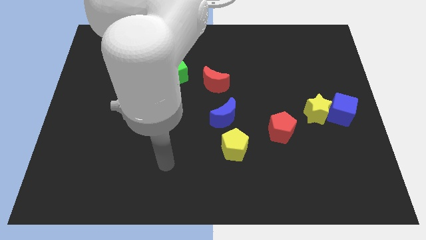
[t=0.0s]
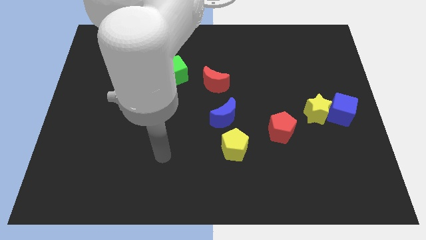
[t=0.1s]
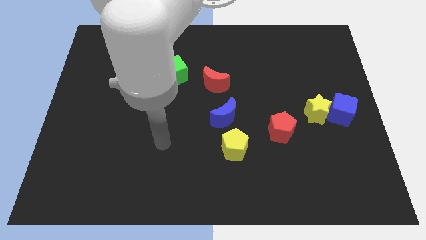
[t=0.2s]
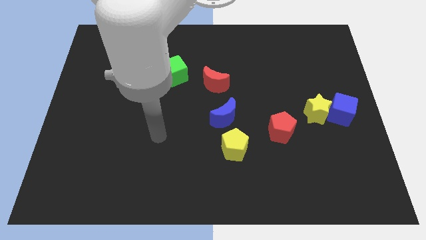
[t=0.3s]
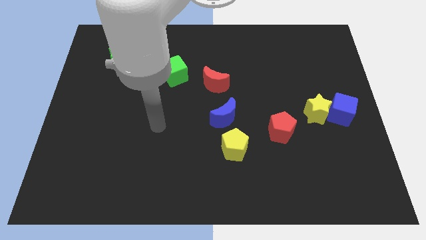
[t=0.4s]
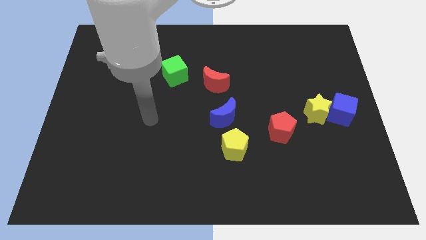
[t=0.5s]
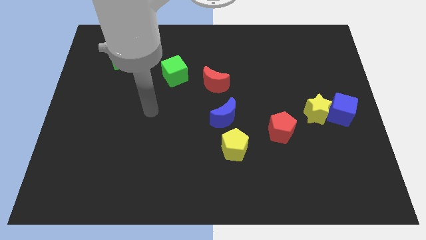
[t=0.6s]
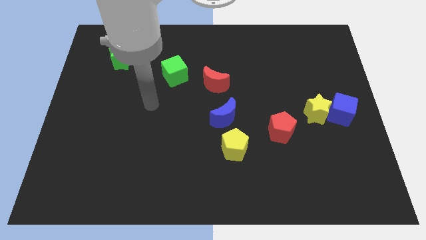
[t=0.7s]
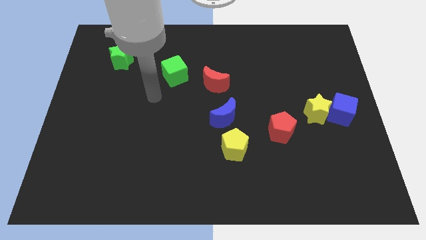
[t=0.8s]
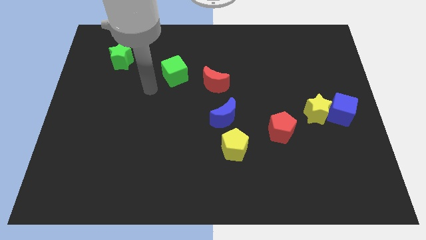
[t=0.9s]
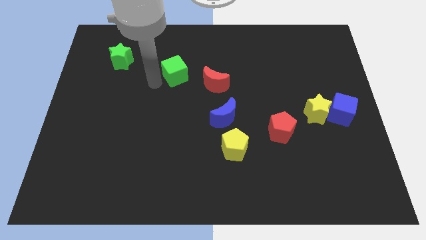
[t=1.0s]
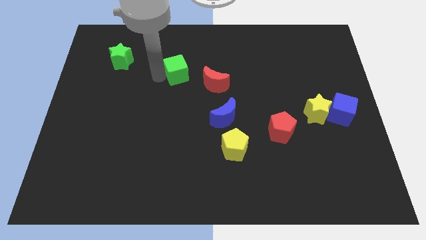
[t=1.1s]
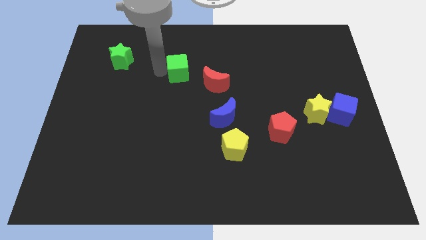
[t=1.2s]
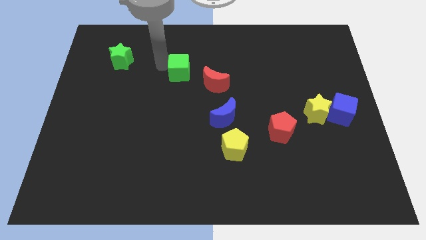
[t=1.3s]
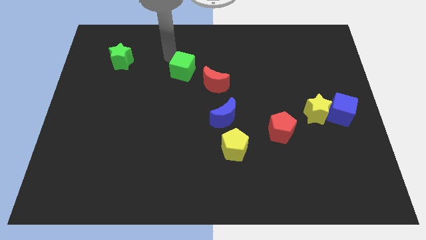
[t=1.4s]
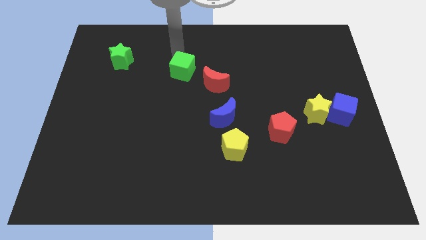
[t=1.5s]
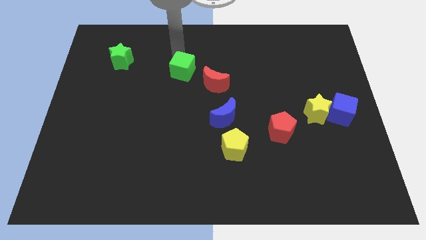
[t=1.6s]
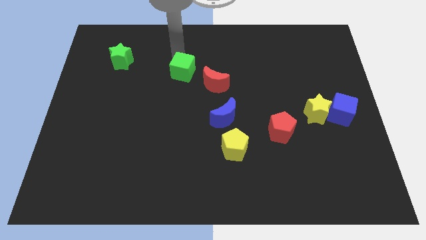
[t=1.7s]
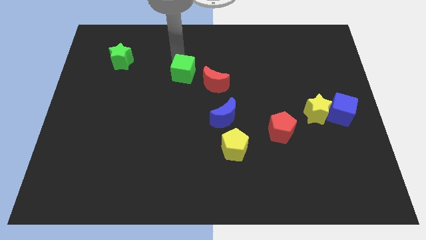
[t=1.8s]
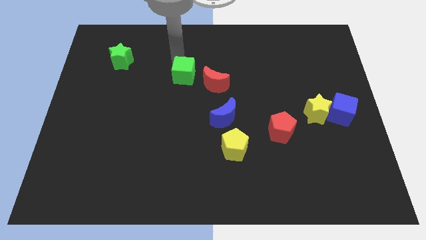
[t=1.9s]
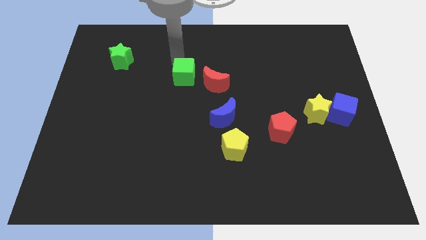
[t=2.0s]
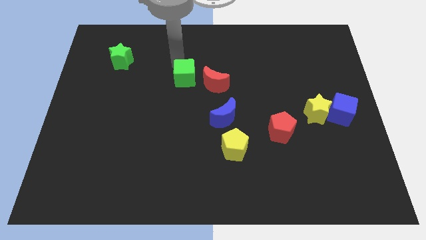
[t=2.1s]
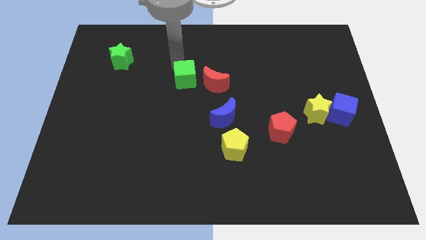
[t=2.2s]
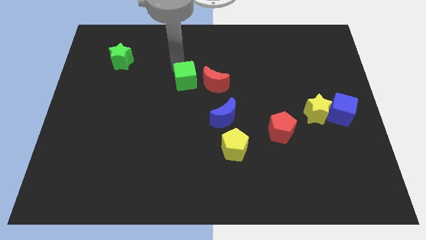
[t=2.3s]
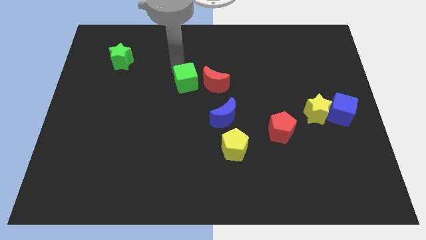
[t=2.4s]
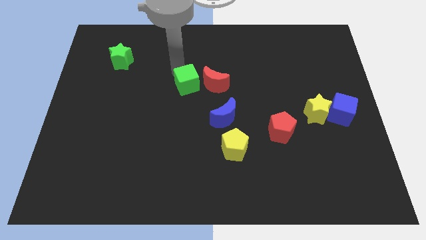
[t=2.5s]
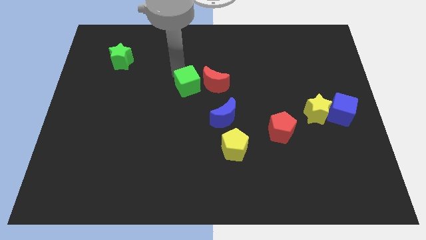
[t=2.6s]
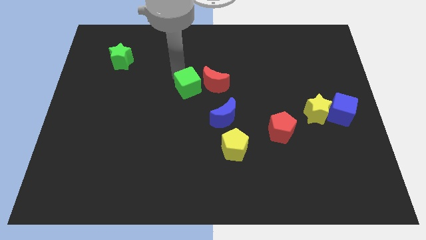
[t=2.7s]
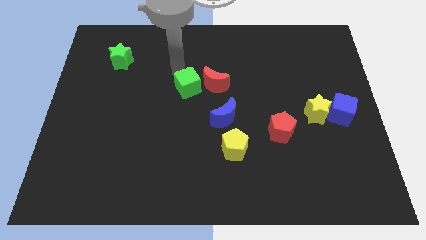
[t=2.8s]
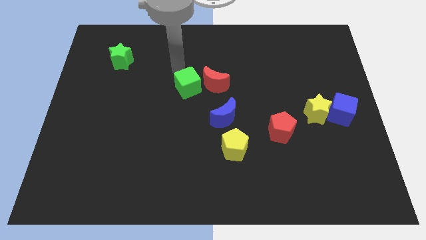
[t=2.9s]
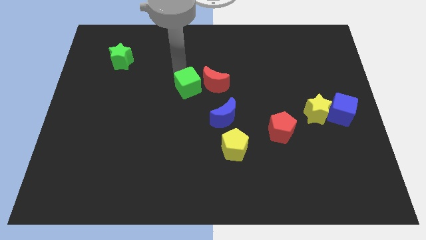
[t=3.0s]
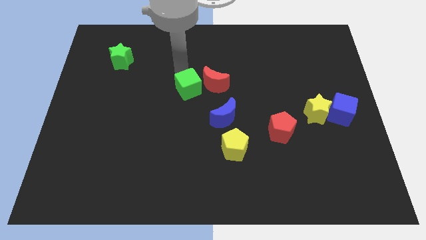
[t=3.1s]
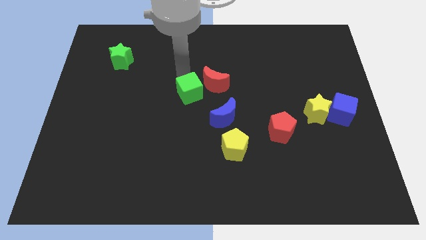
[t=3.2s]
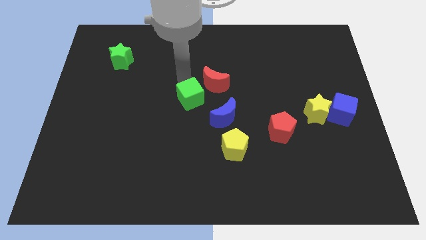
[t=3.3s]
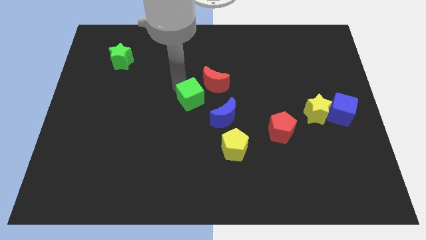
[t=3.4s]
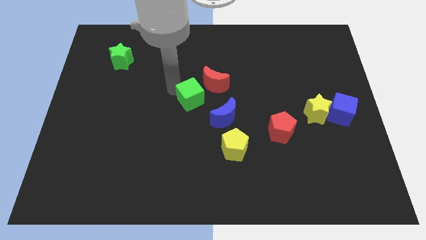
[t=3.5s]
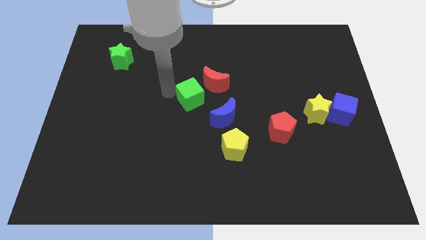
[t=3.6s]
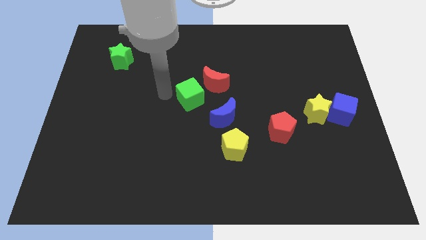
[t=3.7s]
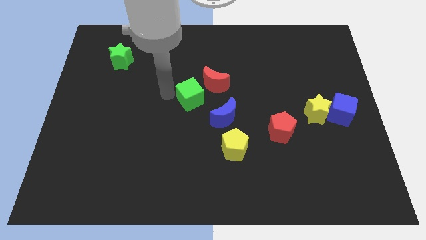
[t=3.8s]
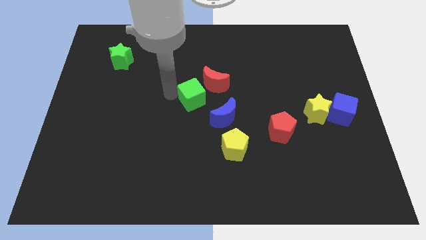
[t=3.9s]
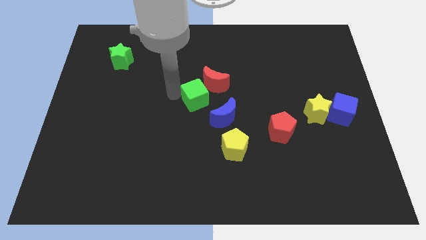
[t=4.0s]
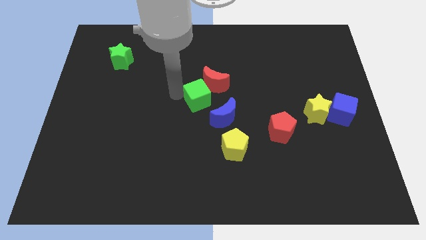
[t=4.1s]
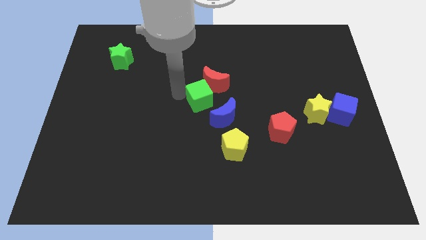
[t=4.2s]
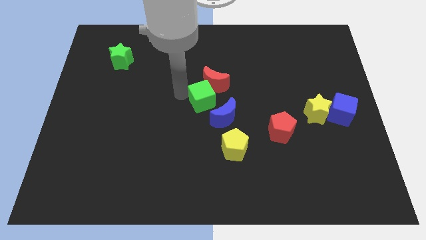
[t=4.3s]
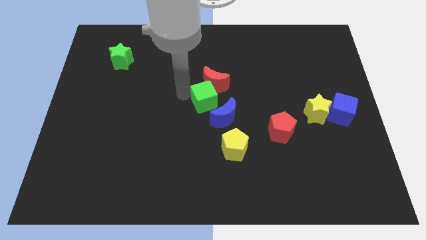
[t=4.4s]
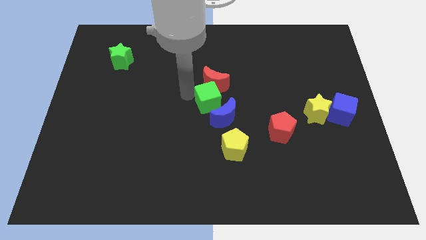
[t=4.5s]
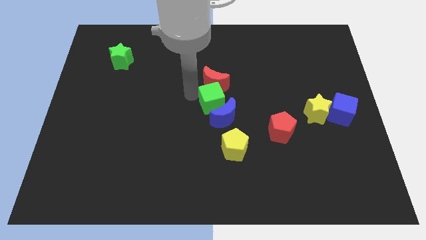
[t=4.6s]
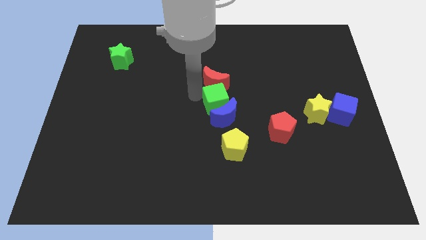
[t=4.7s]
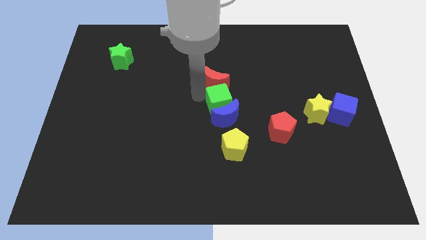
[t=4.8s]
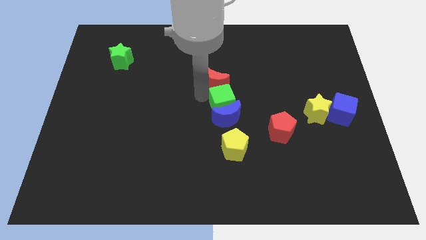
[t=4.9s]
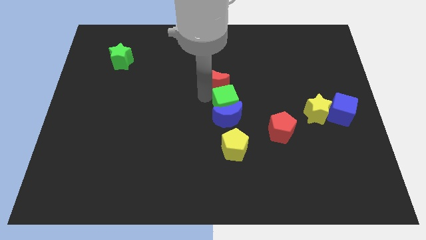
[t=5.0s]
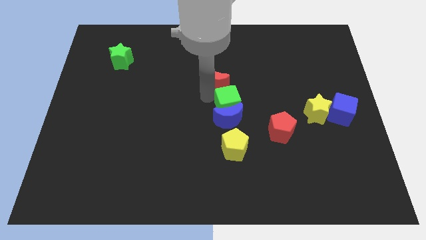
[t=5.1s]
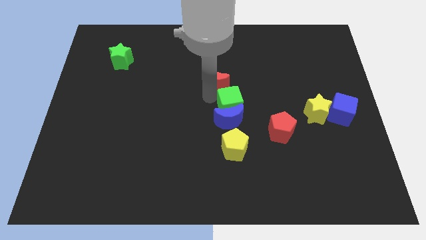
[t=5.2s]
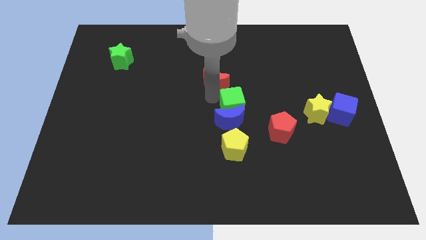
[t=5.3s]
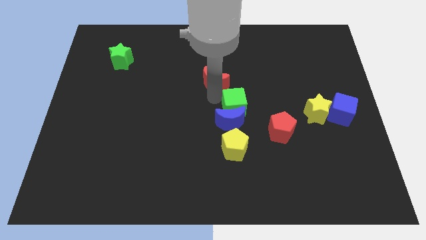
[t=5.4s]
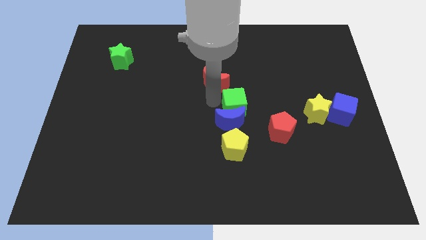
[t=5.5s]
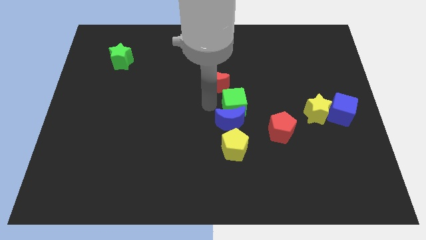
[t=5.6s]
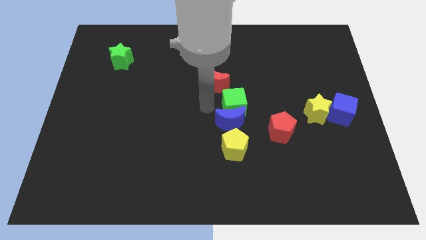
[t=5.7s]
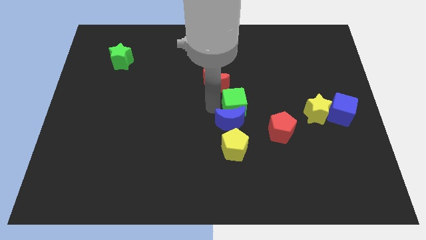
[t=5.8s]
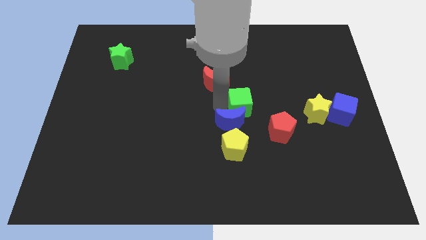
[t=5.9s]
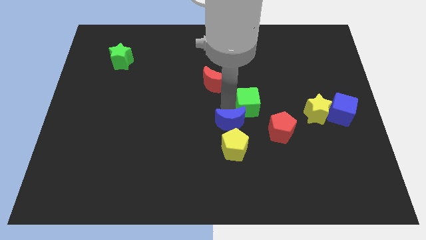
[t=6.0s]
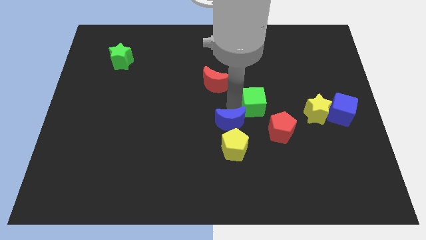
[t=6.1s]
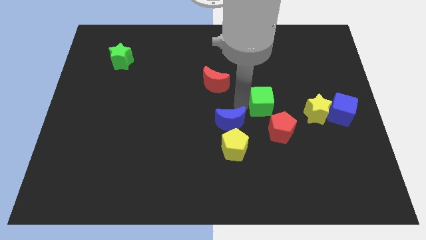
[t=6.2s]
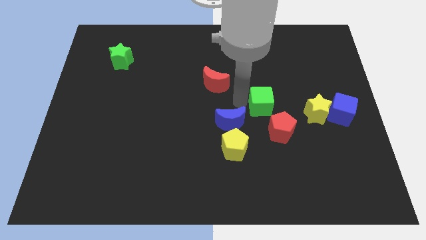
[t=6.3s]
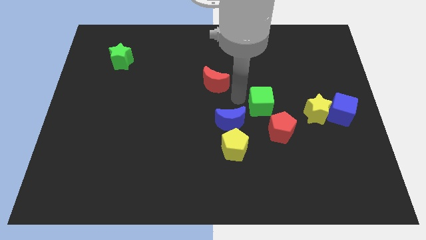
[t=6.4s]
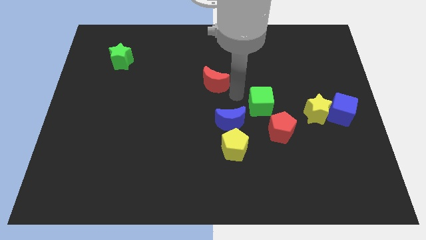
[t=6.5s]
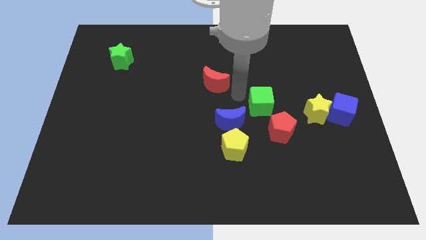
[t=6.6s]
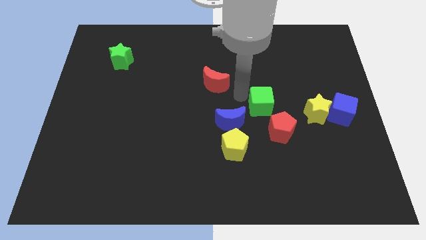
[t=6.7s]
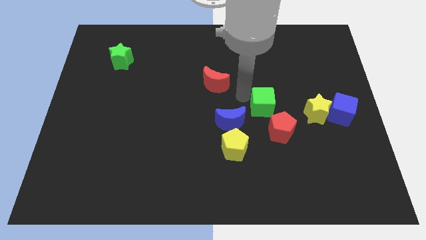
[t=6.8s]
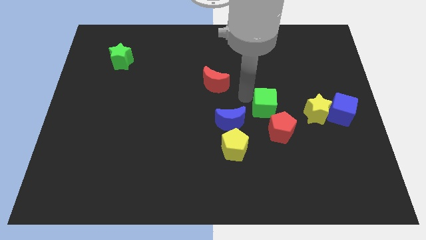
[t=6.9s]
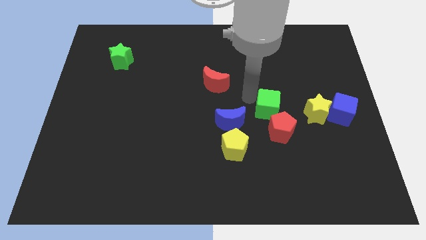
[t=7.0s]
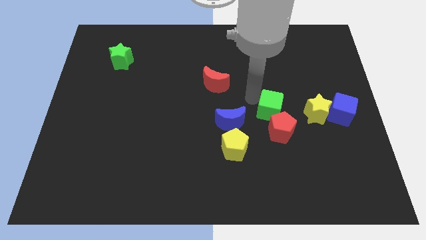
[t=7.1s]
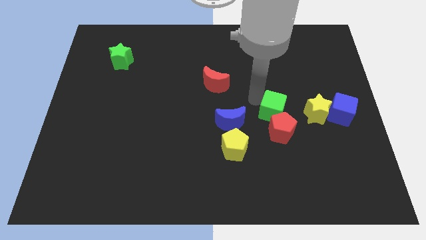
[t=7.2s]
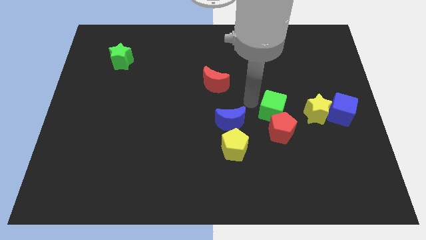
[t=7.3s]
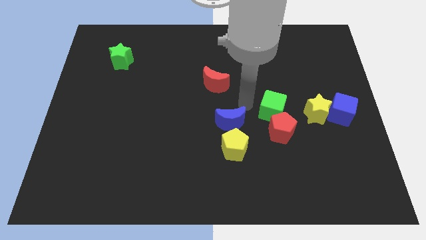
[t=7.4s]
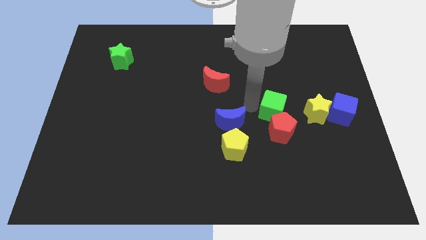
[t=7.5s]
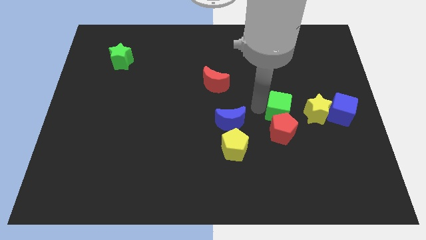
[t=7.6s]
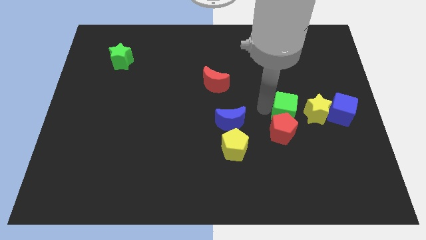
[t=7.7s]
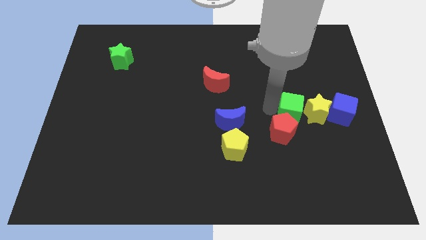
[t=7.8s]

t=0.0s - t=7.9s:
push the green cube next to the yellow star
